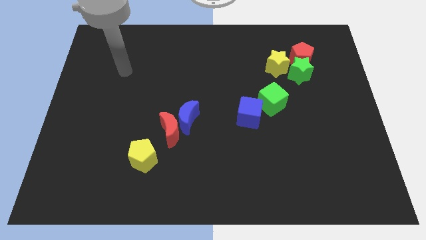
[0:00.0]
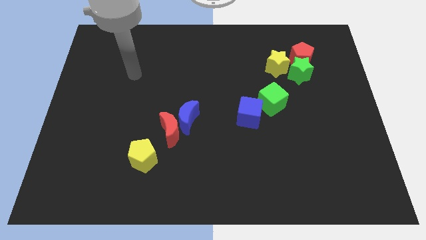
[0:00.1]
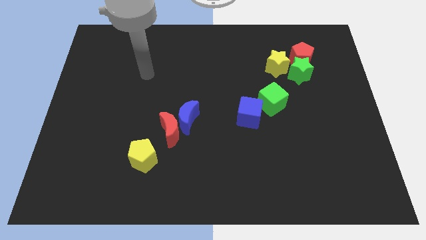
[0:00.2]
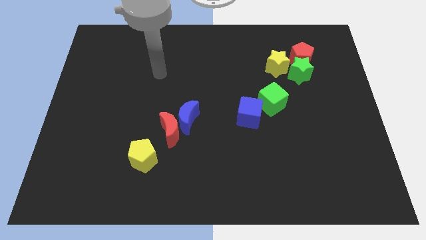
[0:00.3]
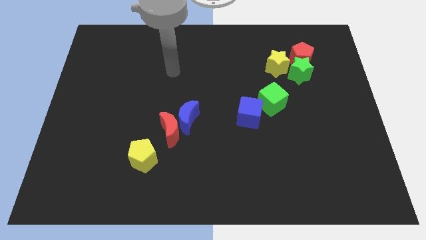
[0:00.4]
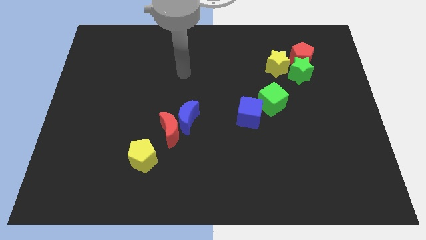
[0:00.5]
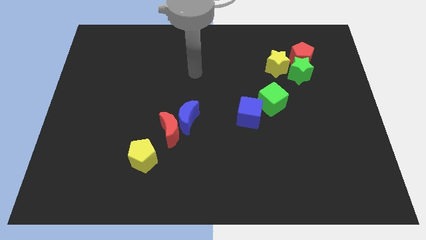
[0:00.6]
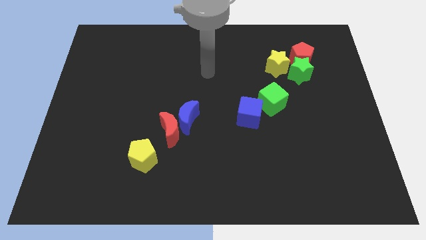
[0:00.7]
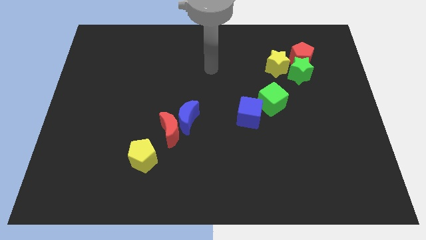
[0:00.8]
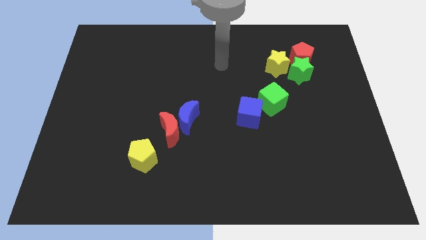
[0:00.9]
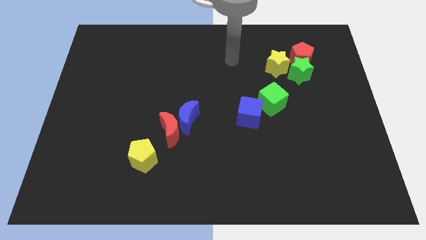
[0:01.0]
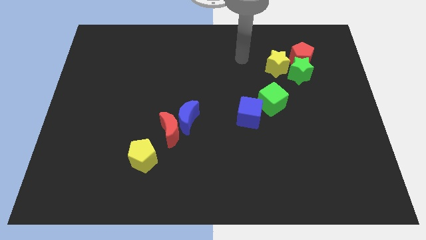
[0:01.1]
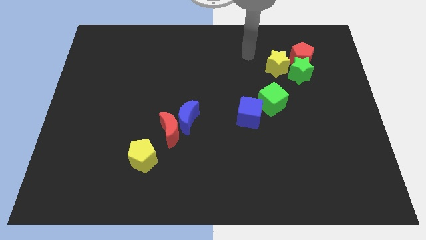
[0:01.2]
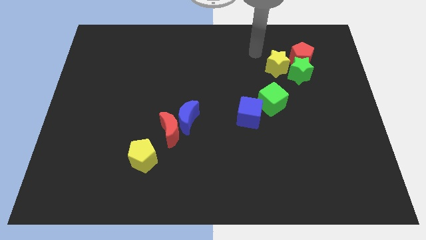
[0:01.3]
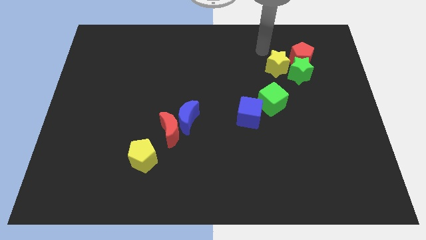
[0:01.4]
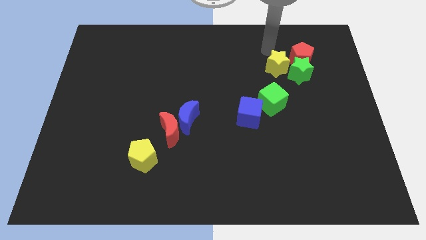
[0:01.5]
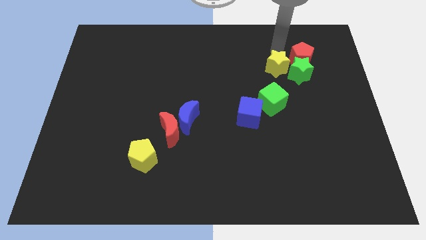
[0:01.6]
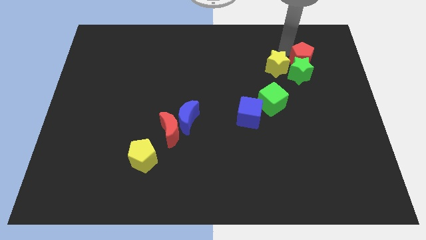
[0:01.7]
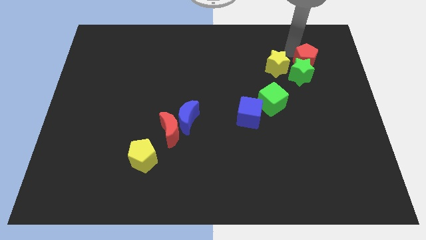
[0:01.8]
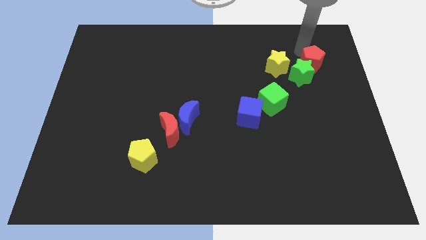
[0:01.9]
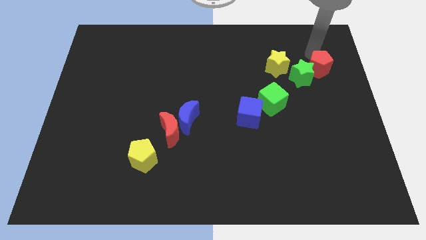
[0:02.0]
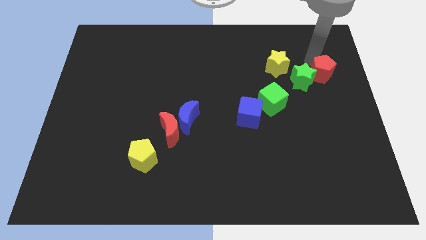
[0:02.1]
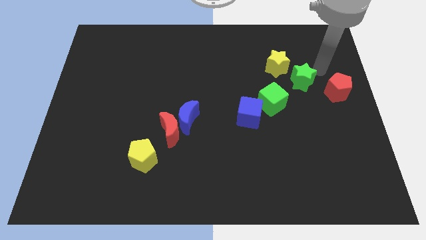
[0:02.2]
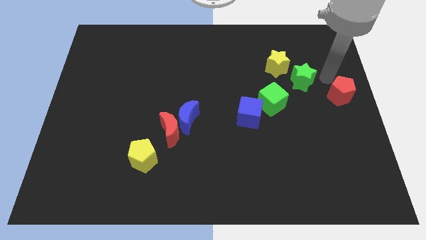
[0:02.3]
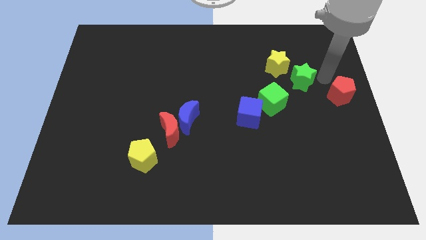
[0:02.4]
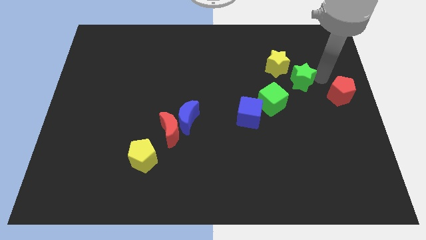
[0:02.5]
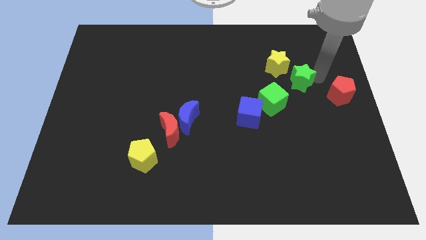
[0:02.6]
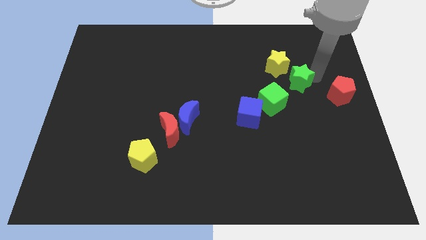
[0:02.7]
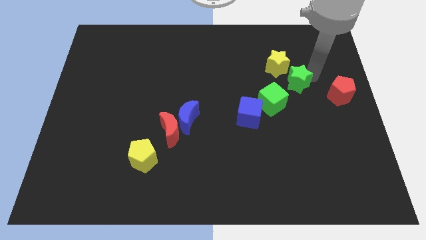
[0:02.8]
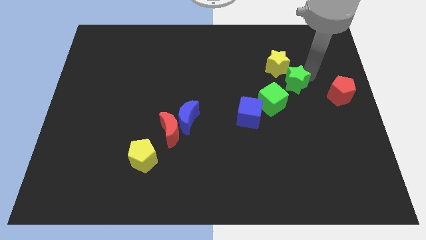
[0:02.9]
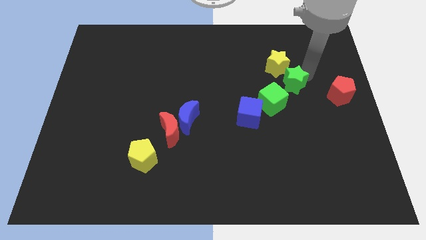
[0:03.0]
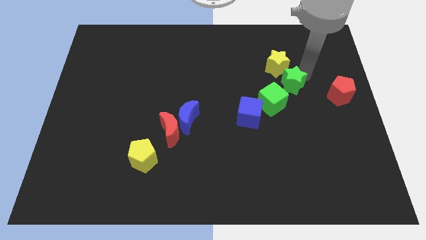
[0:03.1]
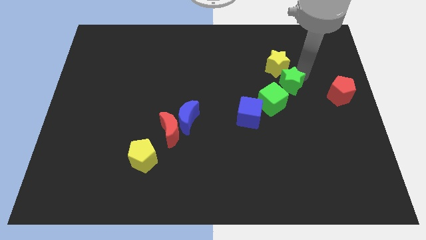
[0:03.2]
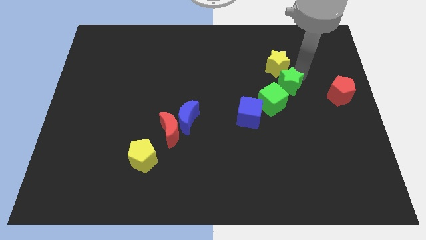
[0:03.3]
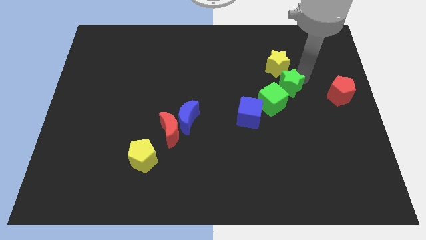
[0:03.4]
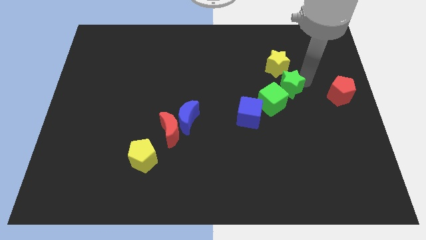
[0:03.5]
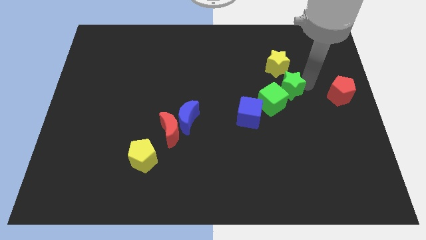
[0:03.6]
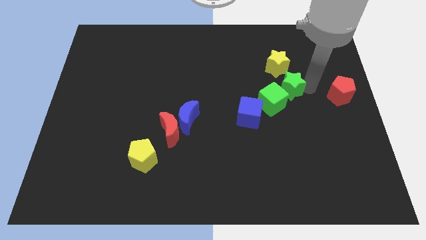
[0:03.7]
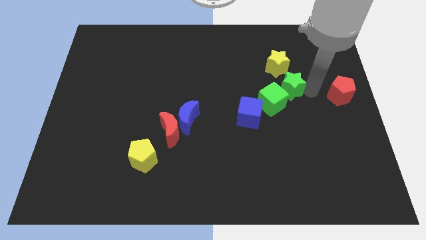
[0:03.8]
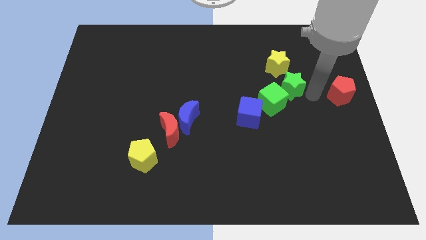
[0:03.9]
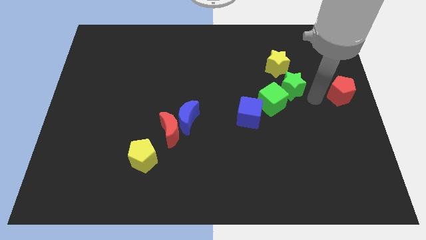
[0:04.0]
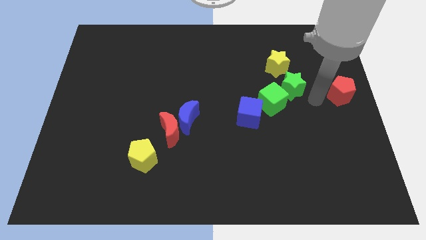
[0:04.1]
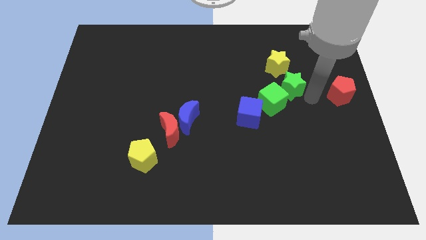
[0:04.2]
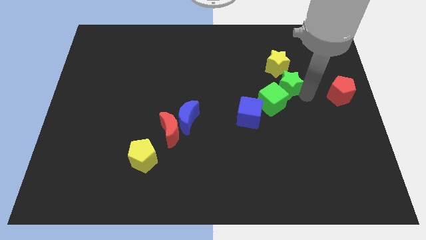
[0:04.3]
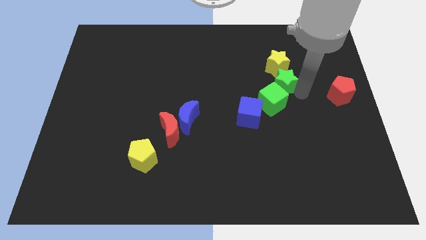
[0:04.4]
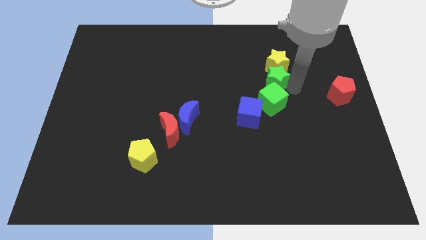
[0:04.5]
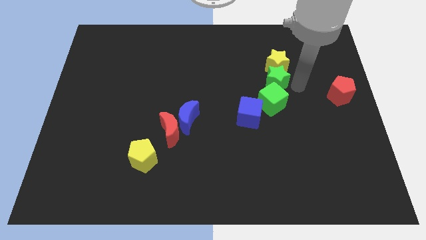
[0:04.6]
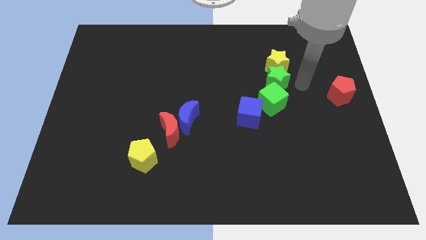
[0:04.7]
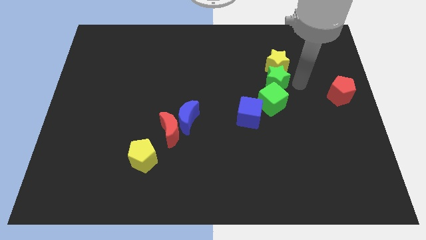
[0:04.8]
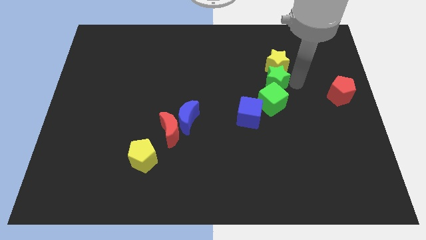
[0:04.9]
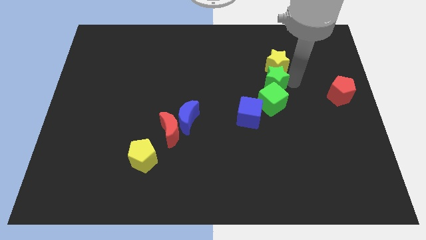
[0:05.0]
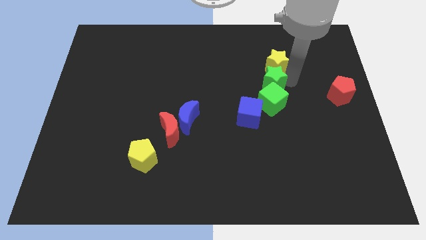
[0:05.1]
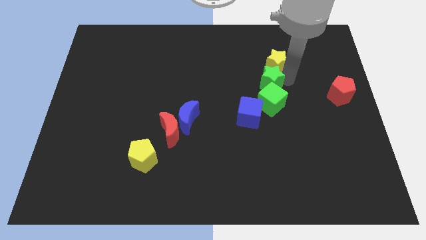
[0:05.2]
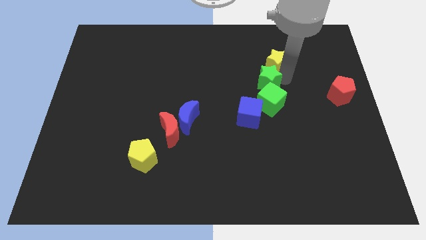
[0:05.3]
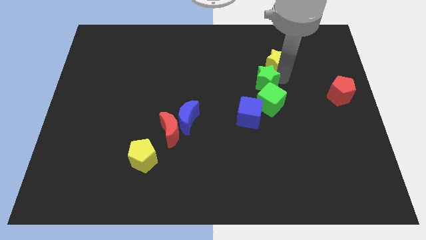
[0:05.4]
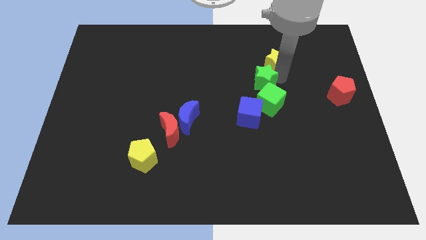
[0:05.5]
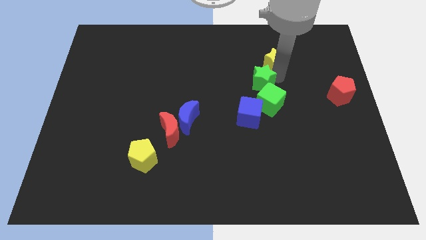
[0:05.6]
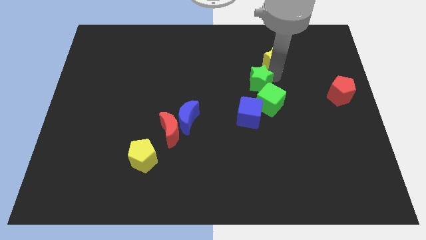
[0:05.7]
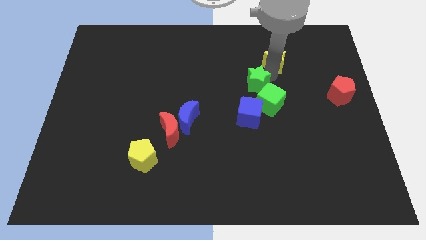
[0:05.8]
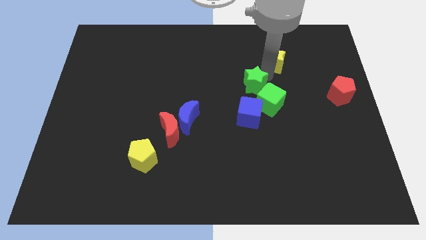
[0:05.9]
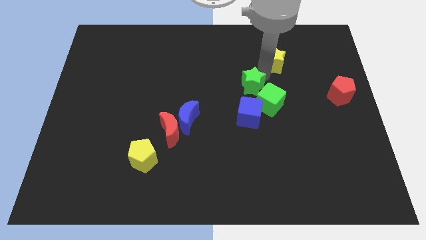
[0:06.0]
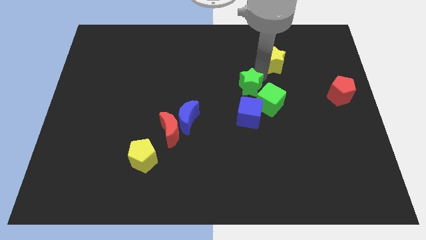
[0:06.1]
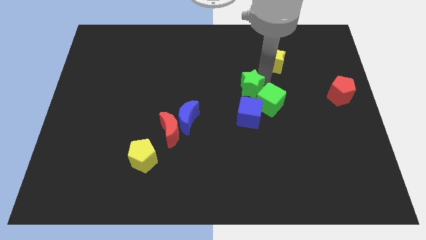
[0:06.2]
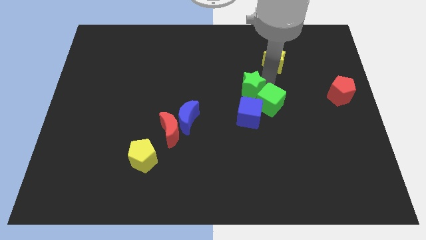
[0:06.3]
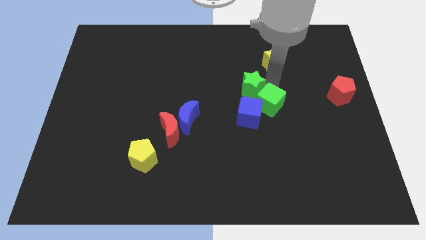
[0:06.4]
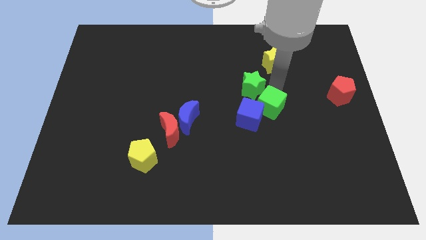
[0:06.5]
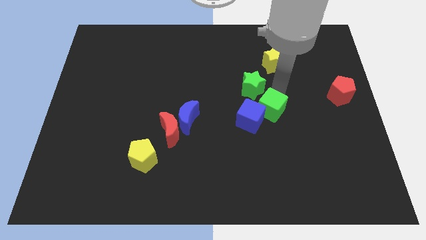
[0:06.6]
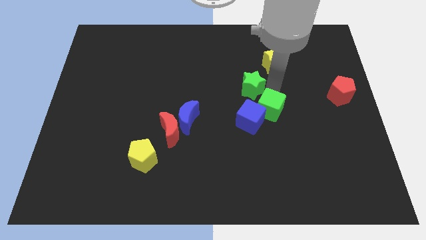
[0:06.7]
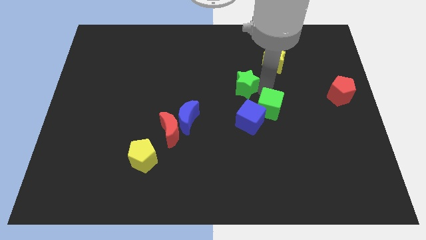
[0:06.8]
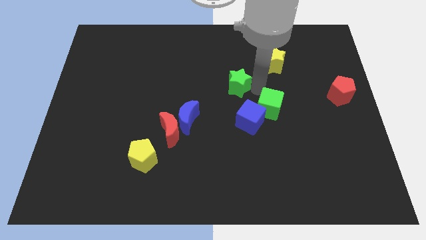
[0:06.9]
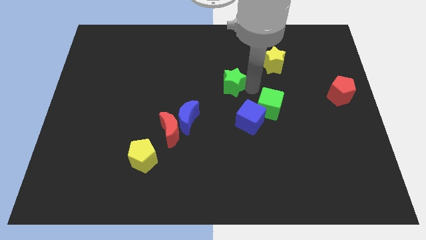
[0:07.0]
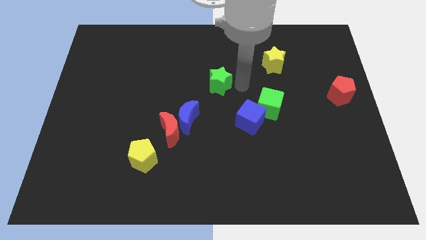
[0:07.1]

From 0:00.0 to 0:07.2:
push the green star left

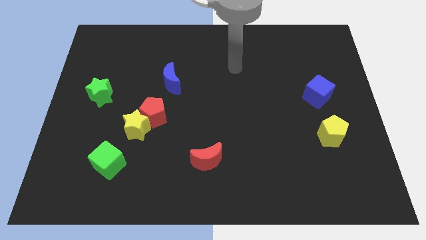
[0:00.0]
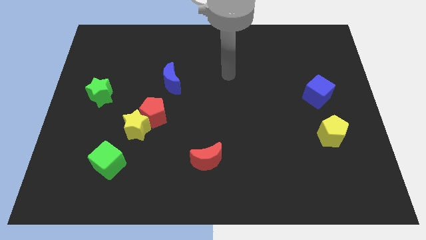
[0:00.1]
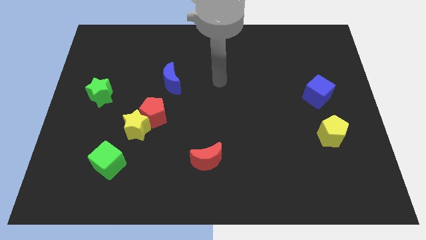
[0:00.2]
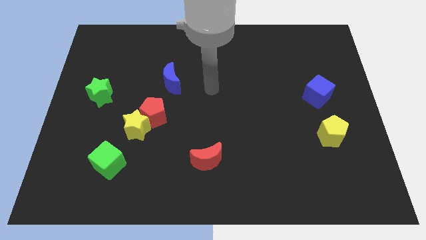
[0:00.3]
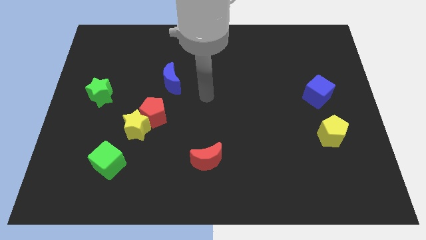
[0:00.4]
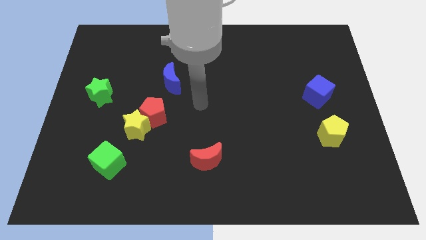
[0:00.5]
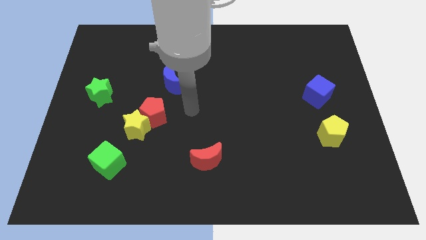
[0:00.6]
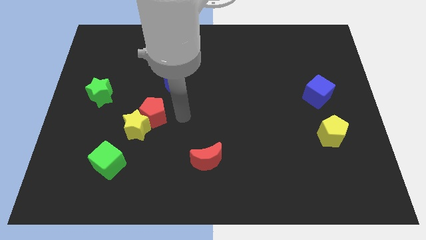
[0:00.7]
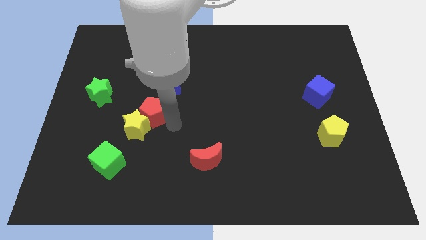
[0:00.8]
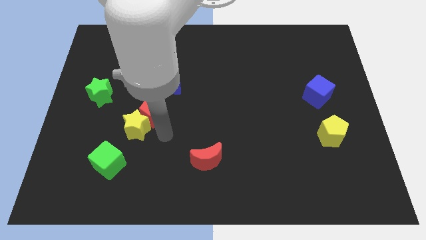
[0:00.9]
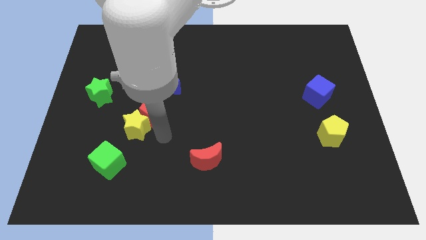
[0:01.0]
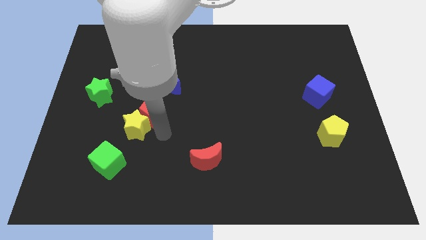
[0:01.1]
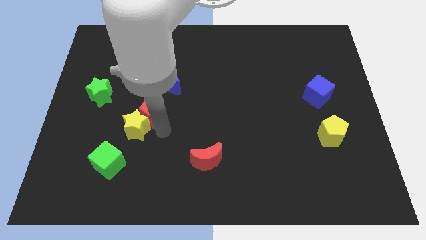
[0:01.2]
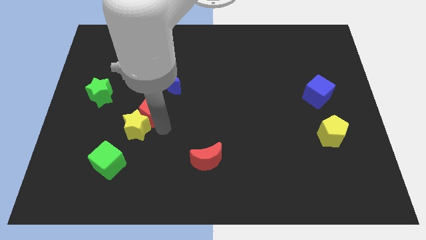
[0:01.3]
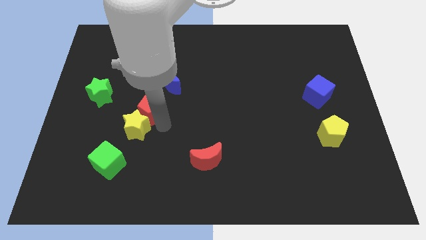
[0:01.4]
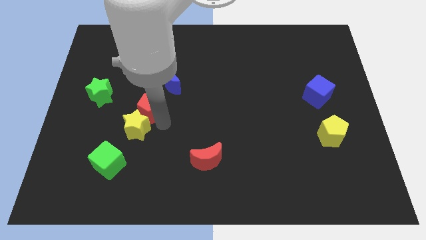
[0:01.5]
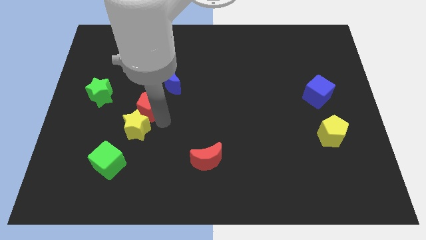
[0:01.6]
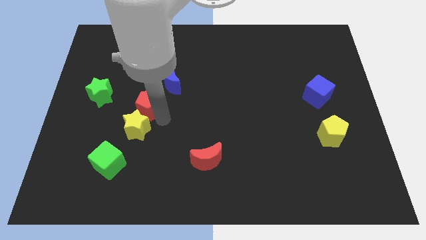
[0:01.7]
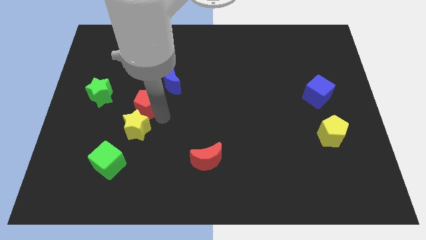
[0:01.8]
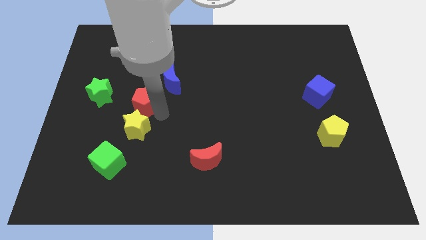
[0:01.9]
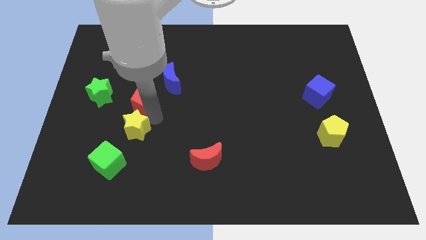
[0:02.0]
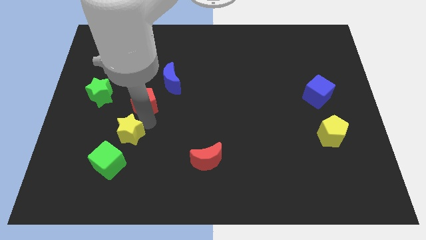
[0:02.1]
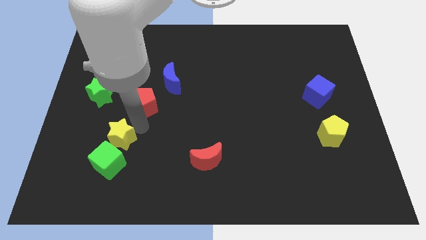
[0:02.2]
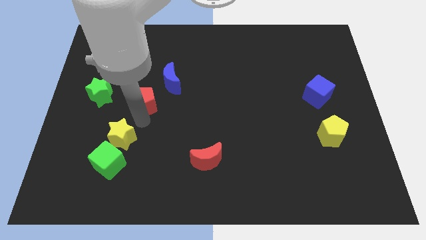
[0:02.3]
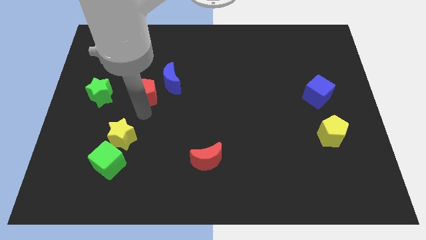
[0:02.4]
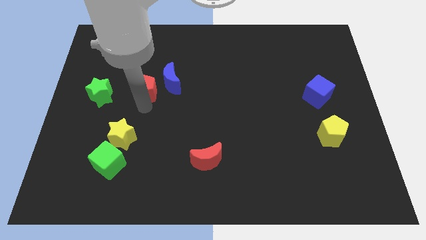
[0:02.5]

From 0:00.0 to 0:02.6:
slightly slide the red pentagon upwards
